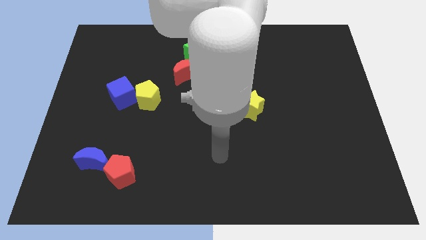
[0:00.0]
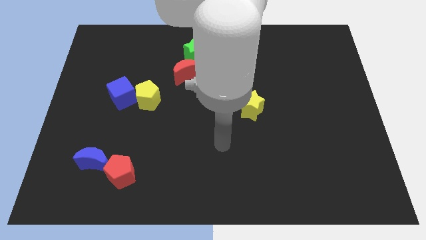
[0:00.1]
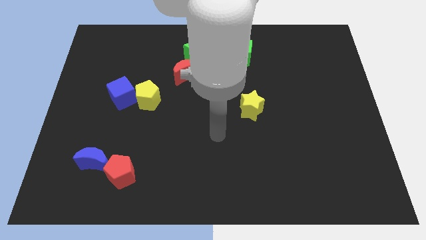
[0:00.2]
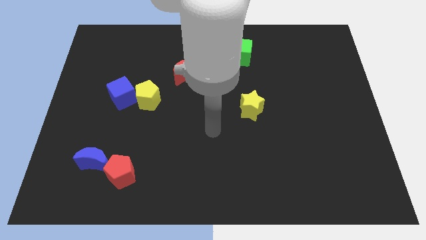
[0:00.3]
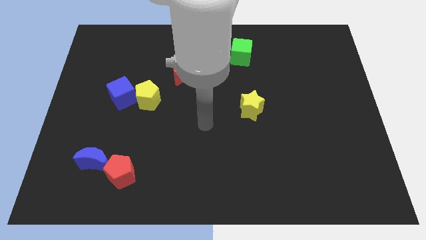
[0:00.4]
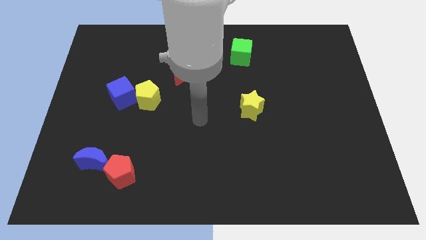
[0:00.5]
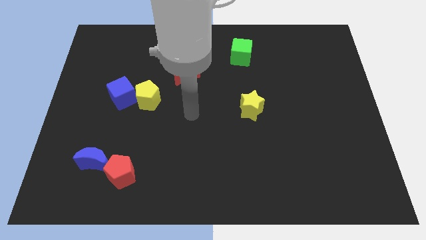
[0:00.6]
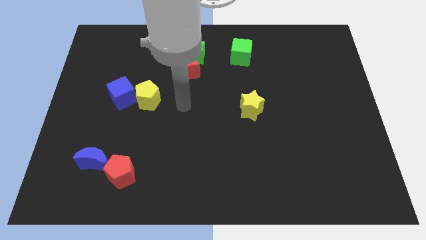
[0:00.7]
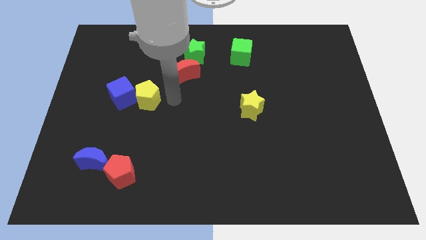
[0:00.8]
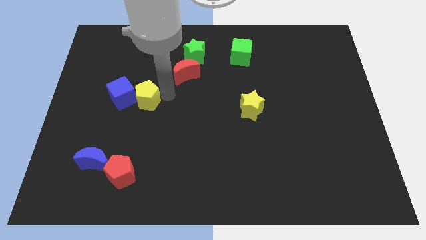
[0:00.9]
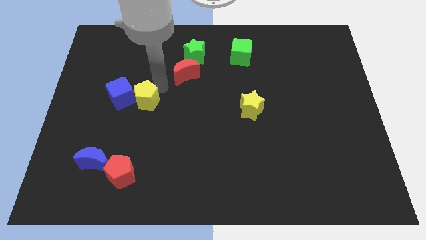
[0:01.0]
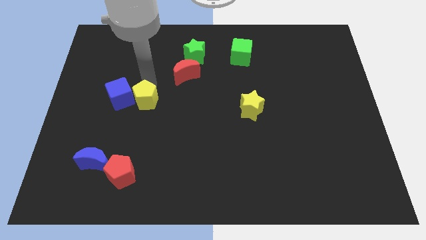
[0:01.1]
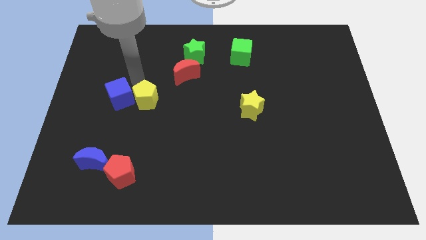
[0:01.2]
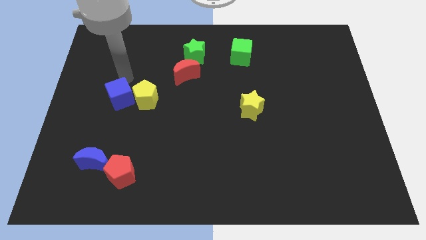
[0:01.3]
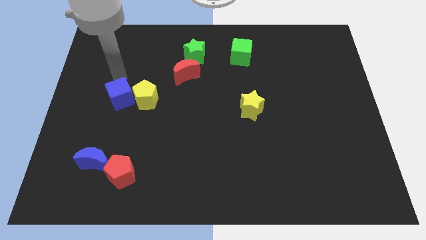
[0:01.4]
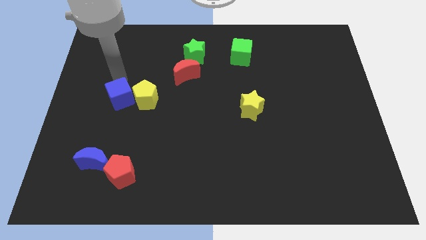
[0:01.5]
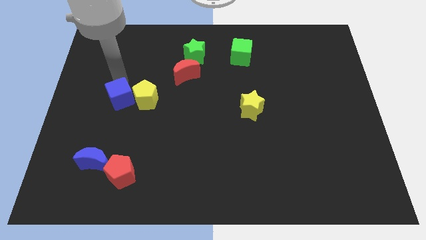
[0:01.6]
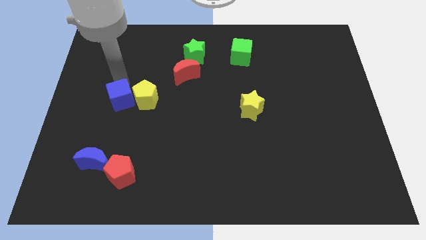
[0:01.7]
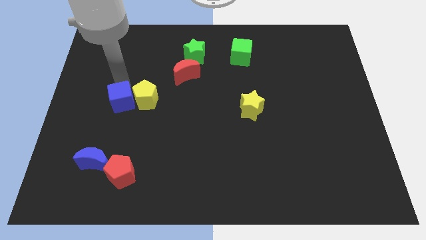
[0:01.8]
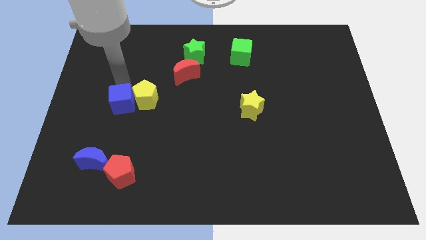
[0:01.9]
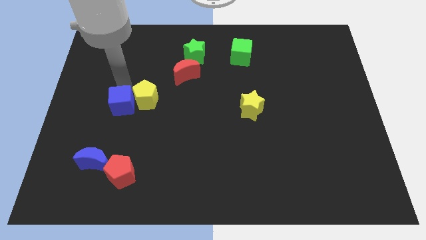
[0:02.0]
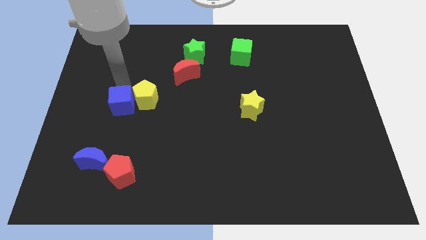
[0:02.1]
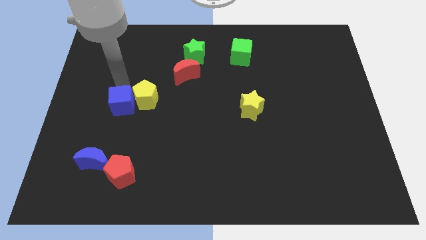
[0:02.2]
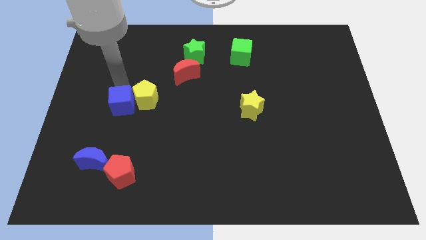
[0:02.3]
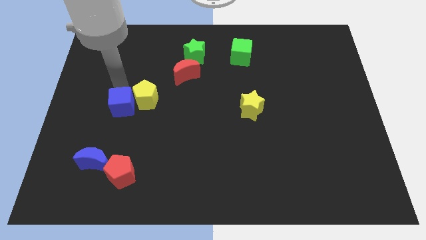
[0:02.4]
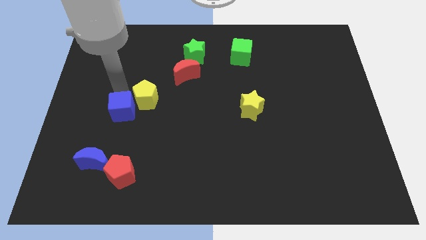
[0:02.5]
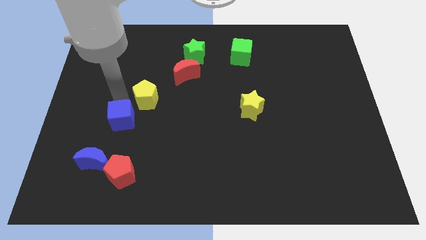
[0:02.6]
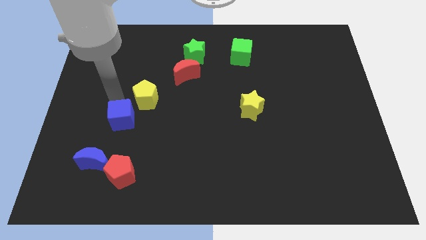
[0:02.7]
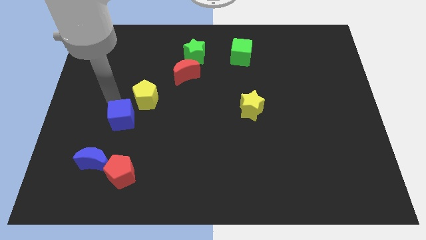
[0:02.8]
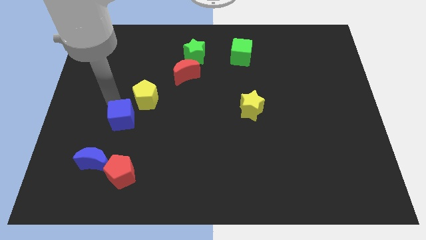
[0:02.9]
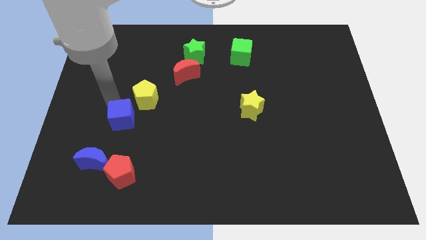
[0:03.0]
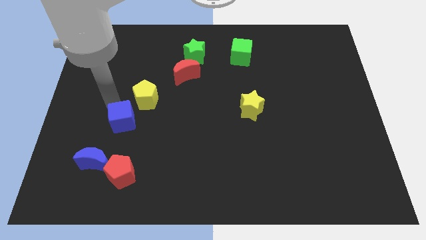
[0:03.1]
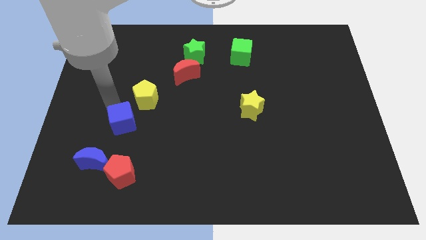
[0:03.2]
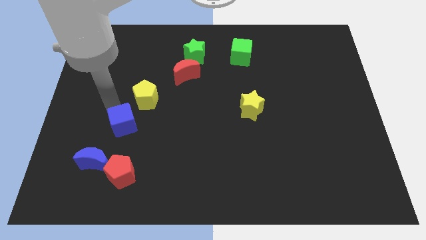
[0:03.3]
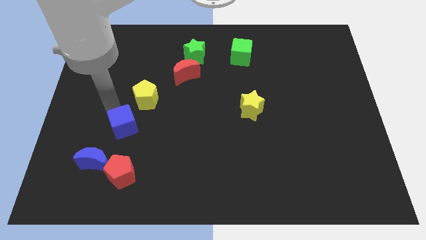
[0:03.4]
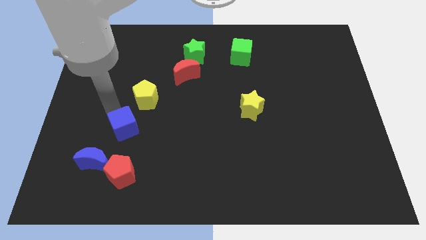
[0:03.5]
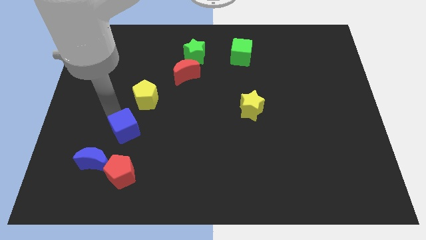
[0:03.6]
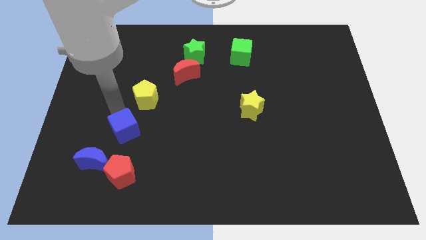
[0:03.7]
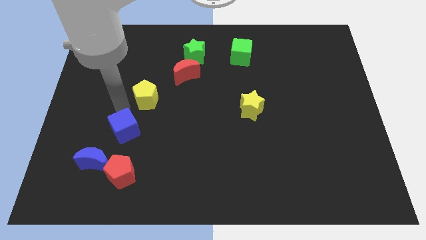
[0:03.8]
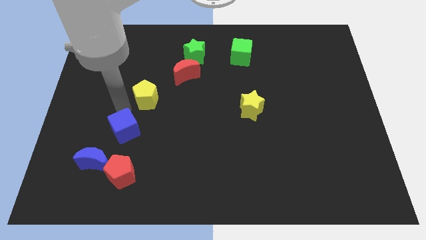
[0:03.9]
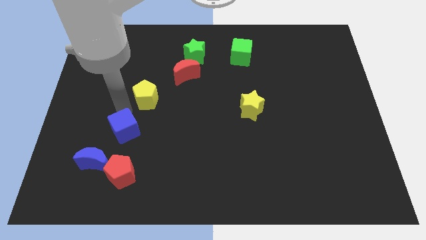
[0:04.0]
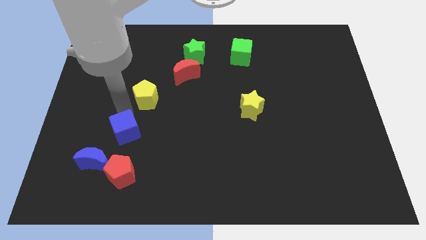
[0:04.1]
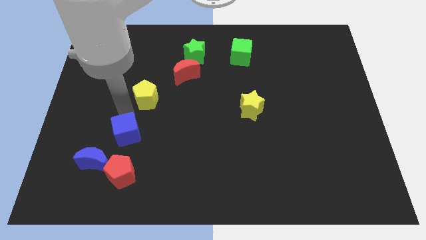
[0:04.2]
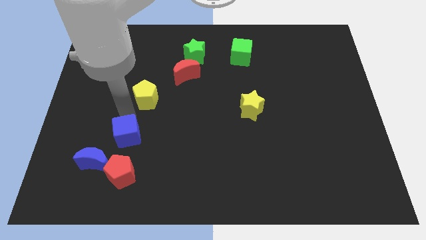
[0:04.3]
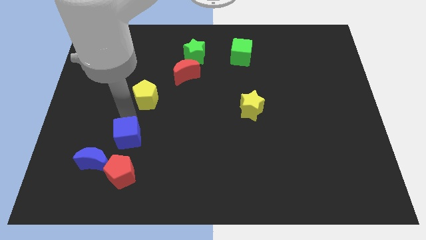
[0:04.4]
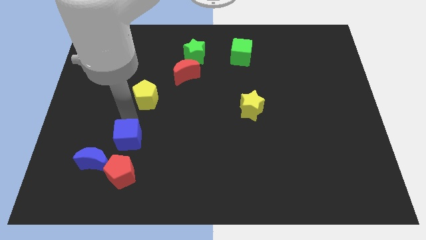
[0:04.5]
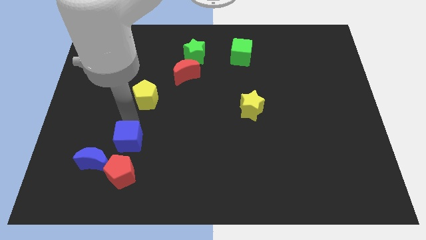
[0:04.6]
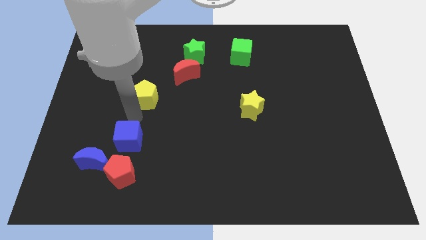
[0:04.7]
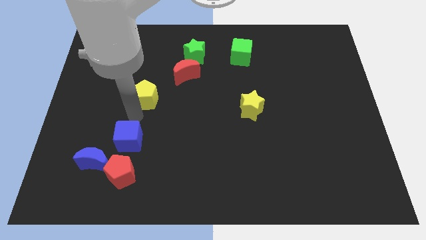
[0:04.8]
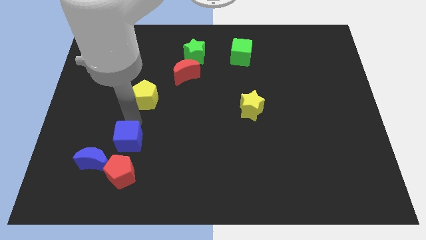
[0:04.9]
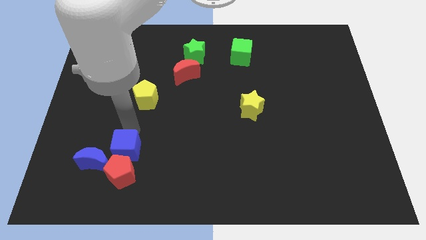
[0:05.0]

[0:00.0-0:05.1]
put the blue cube towards the red pentagon

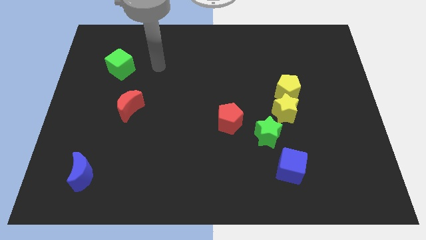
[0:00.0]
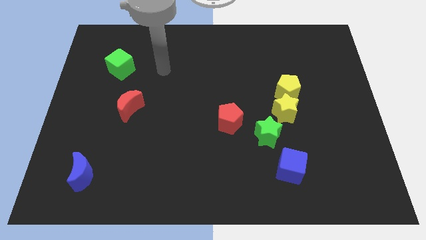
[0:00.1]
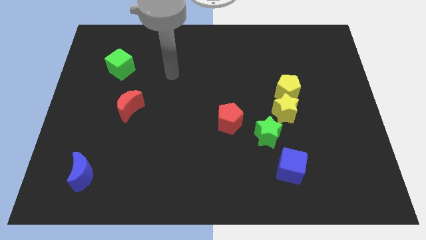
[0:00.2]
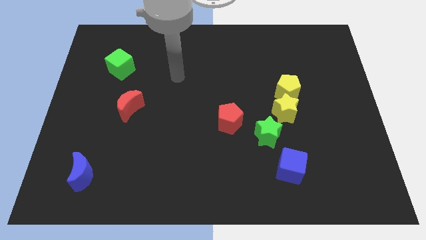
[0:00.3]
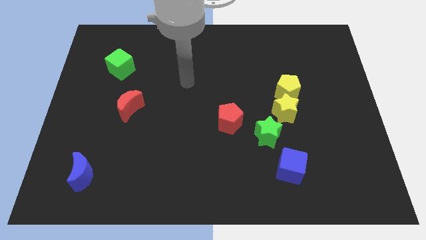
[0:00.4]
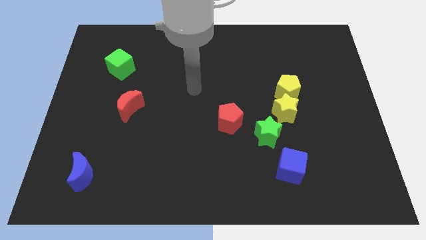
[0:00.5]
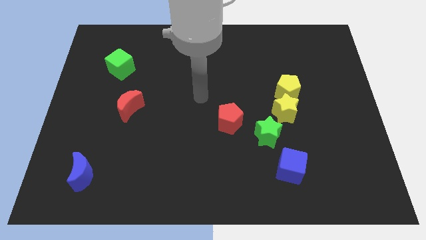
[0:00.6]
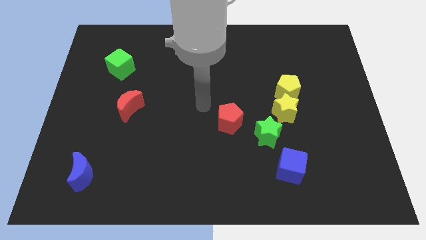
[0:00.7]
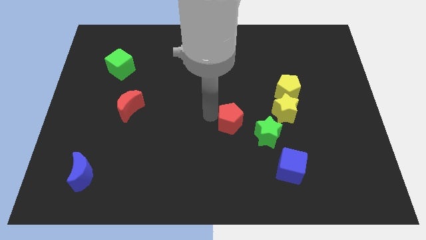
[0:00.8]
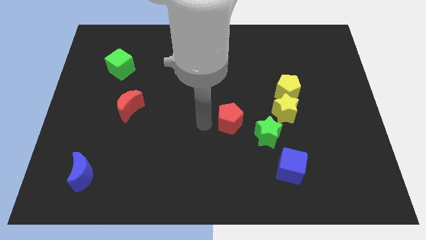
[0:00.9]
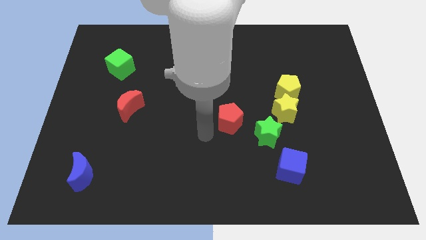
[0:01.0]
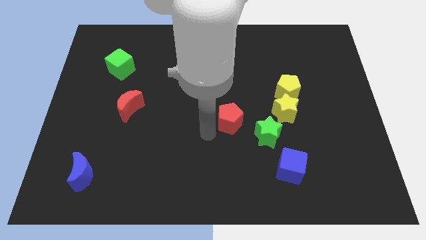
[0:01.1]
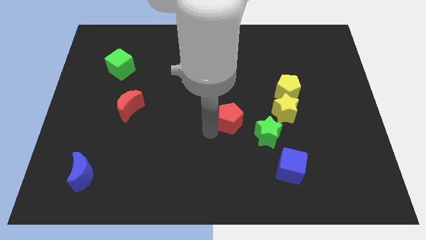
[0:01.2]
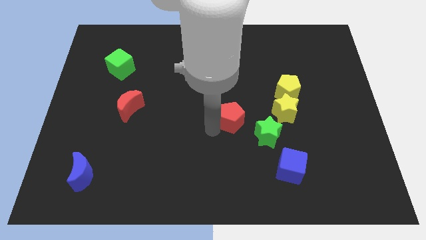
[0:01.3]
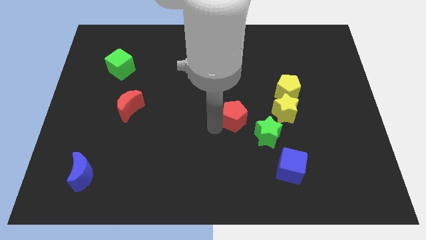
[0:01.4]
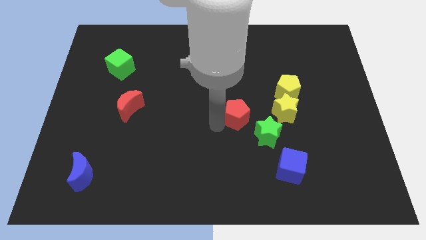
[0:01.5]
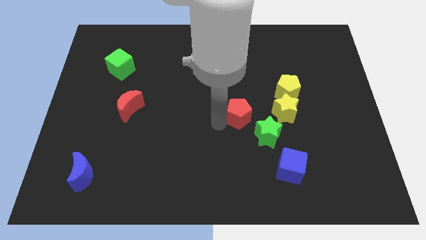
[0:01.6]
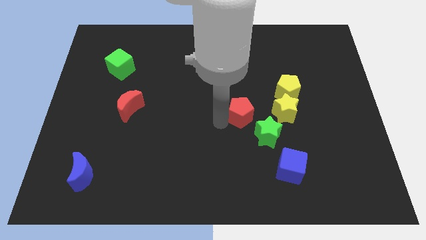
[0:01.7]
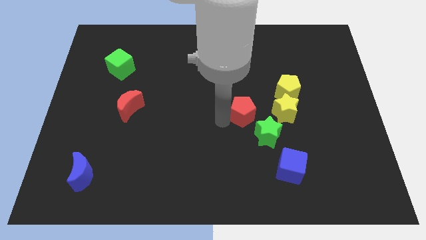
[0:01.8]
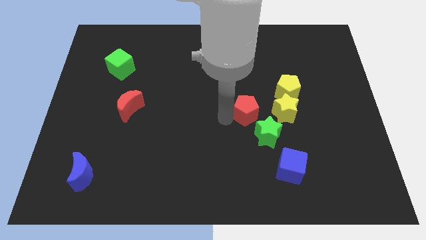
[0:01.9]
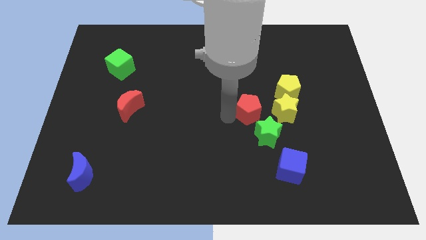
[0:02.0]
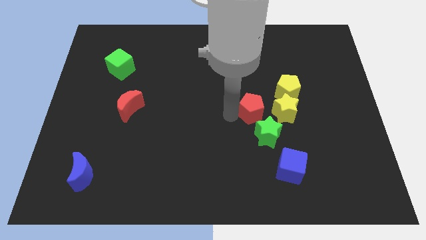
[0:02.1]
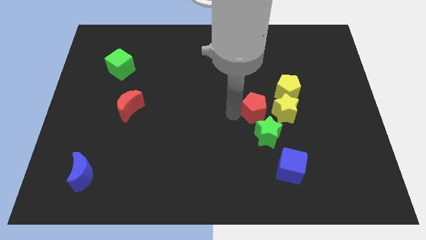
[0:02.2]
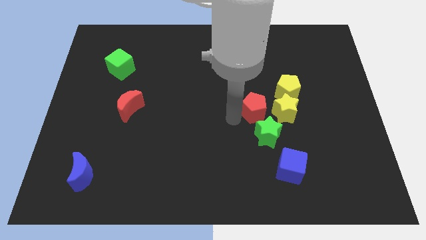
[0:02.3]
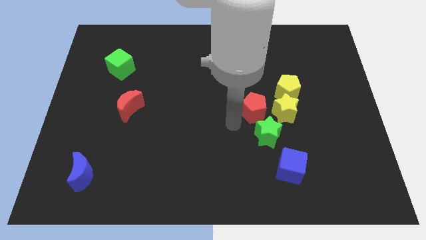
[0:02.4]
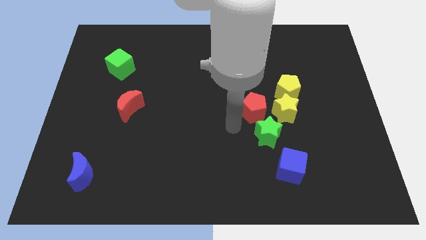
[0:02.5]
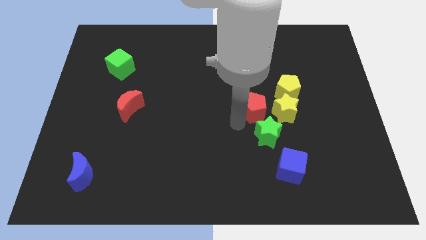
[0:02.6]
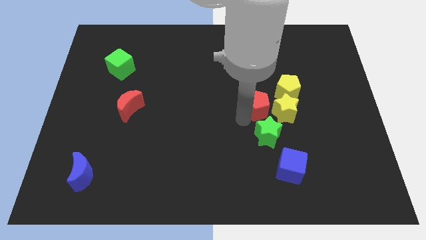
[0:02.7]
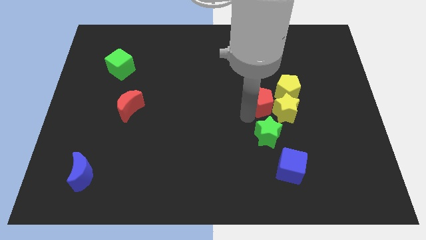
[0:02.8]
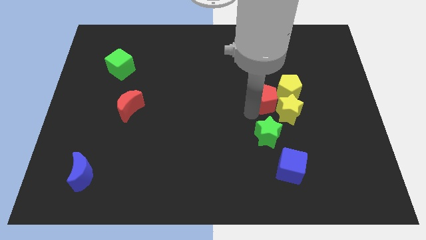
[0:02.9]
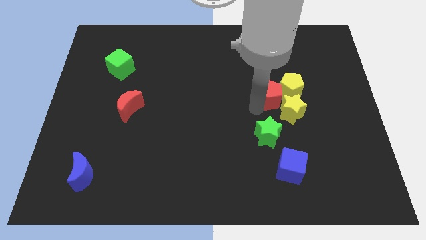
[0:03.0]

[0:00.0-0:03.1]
push the red pentagon towards the yellow pentagon
